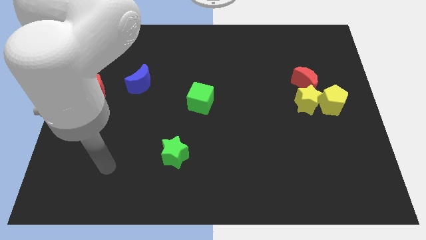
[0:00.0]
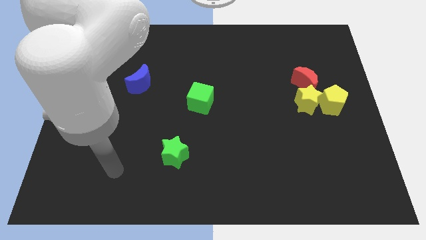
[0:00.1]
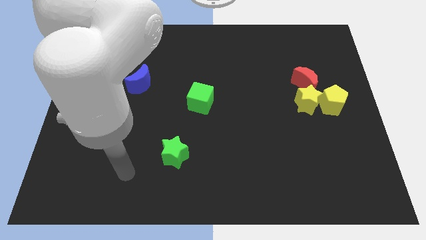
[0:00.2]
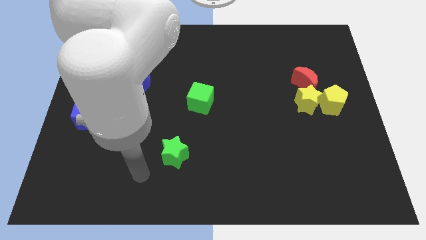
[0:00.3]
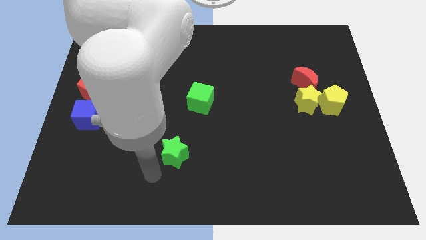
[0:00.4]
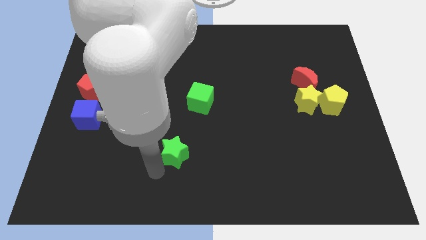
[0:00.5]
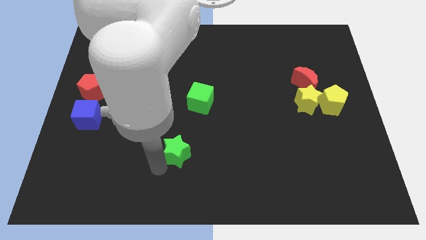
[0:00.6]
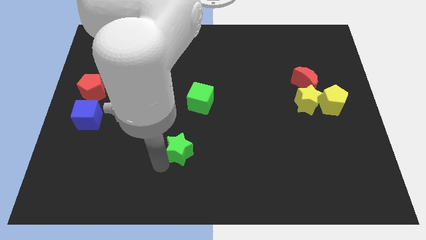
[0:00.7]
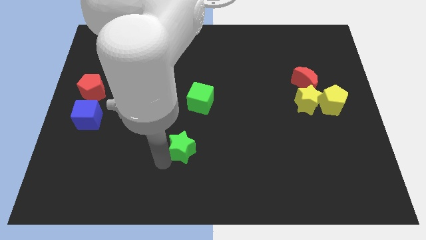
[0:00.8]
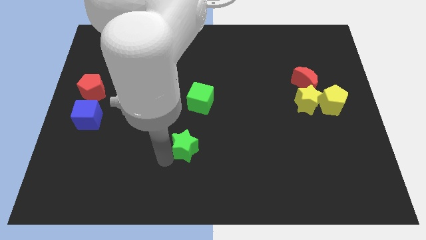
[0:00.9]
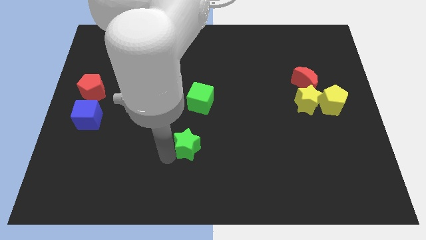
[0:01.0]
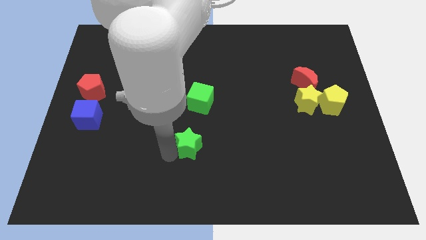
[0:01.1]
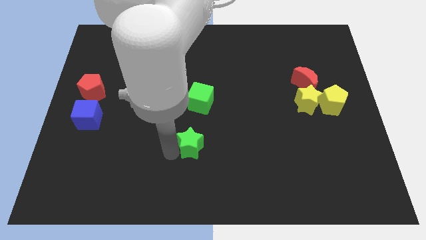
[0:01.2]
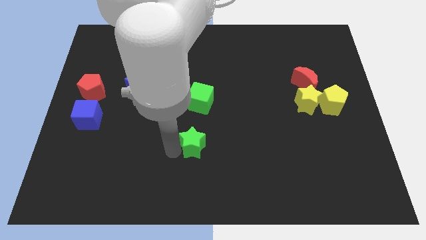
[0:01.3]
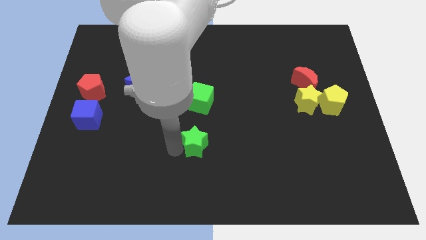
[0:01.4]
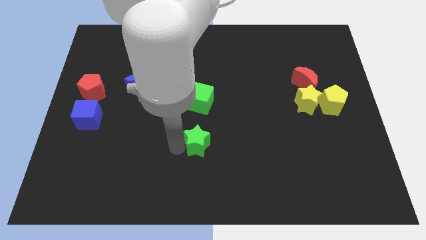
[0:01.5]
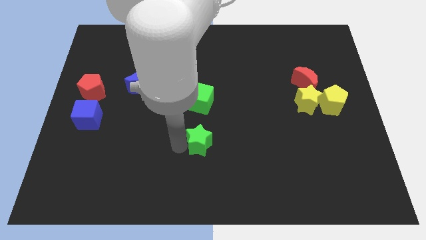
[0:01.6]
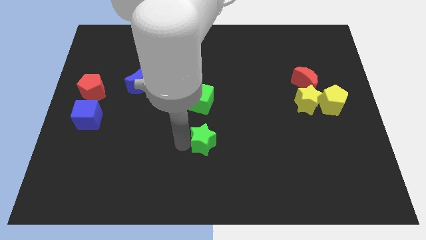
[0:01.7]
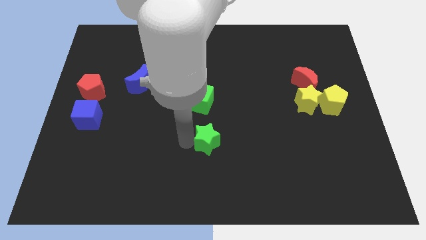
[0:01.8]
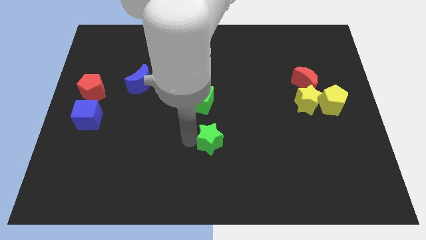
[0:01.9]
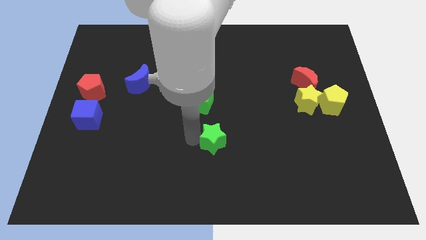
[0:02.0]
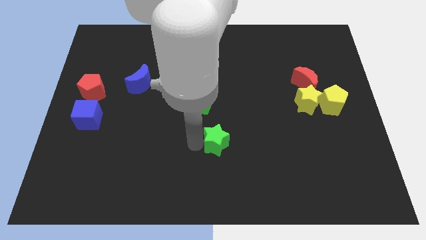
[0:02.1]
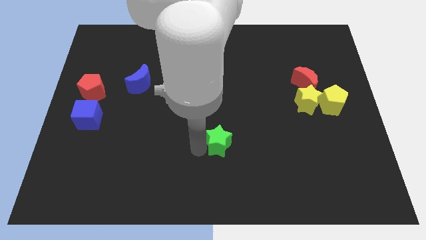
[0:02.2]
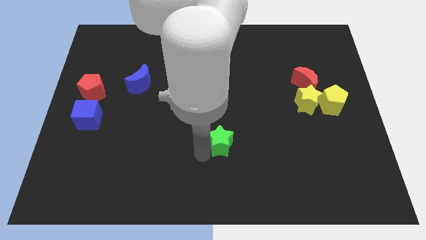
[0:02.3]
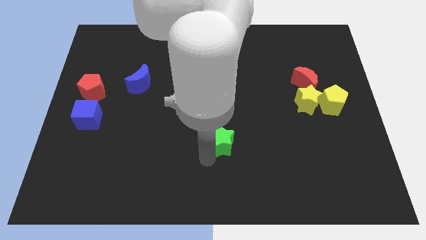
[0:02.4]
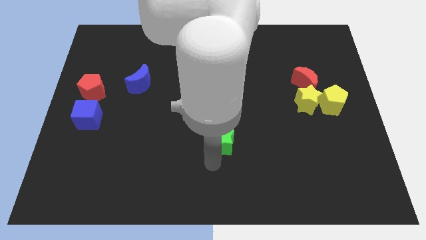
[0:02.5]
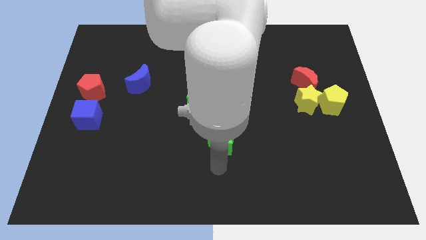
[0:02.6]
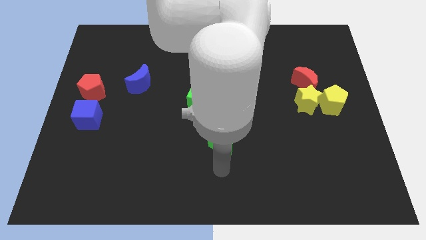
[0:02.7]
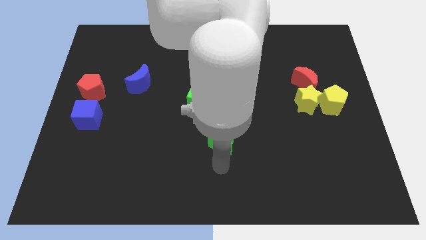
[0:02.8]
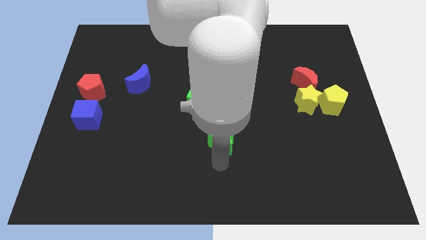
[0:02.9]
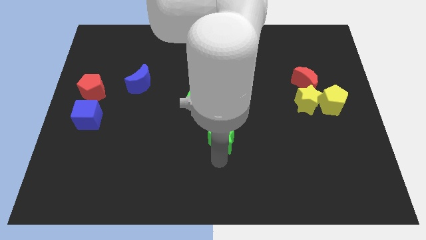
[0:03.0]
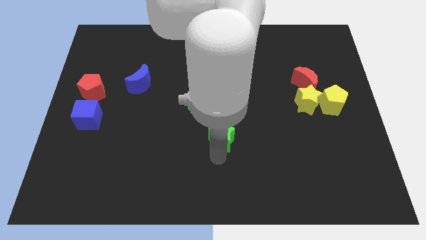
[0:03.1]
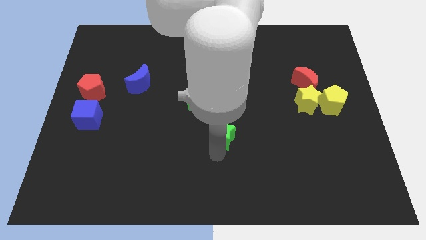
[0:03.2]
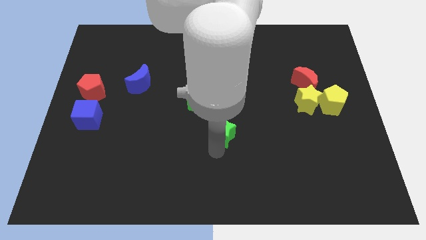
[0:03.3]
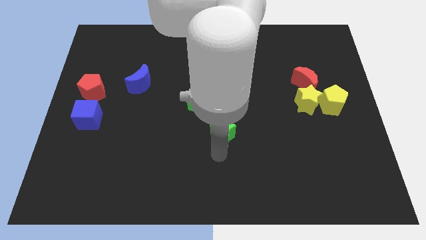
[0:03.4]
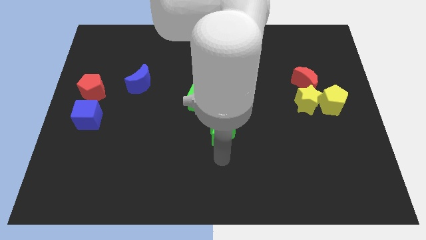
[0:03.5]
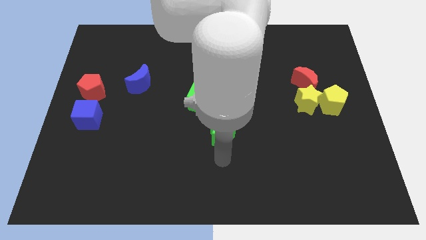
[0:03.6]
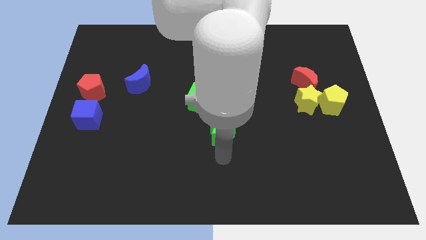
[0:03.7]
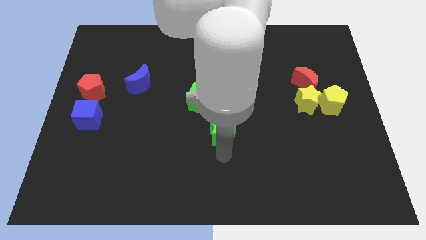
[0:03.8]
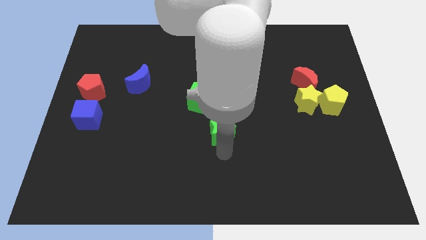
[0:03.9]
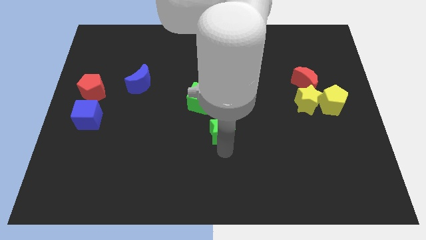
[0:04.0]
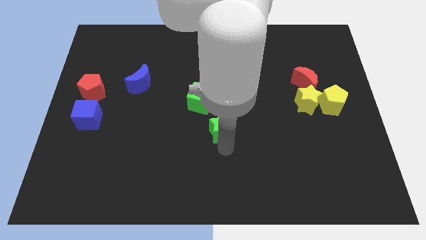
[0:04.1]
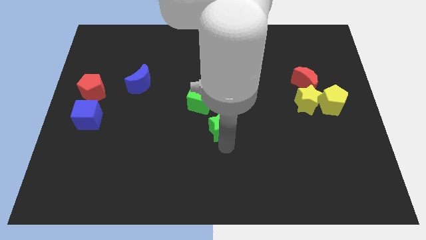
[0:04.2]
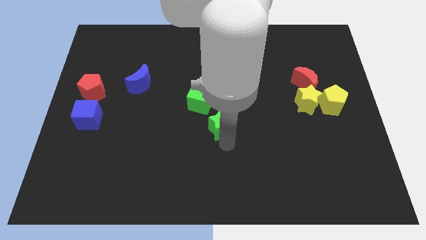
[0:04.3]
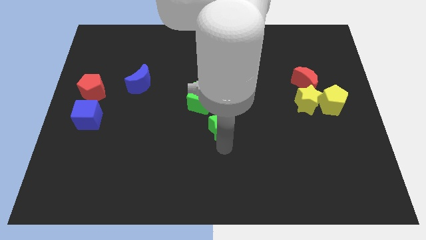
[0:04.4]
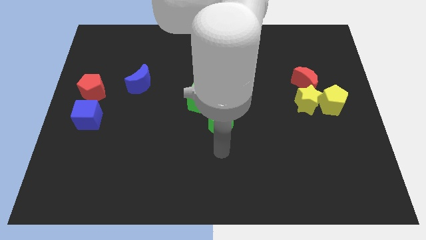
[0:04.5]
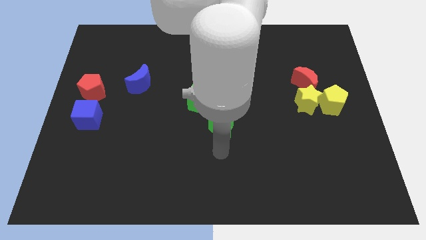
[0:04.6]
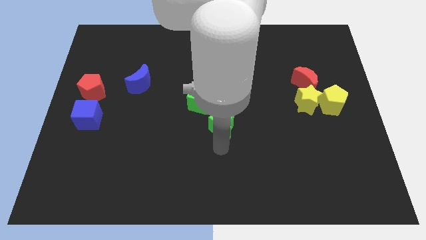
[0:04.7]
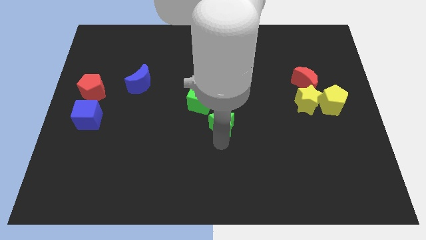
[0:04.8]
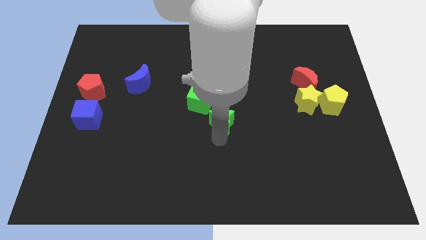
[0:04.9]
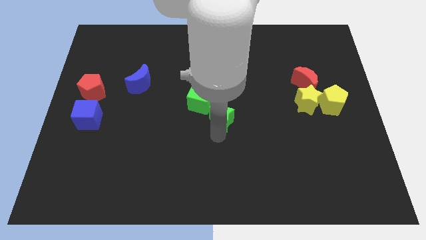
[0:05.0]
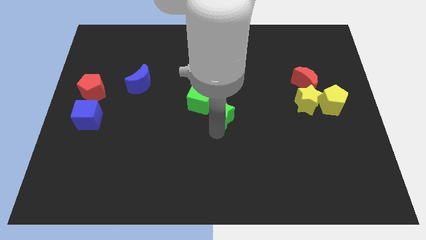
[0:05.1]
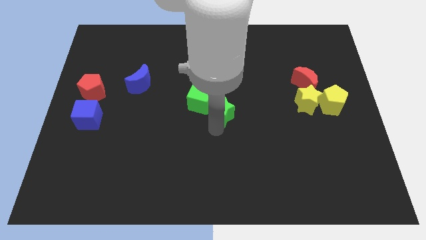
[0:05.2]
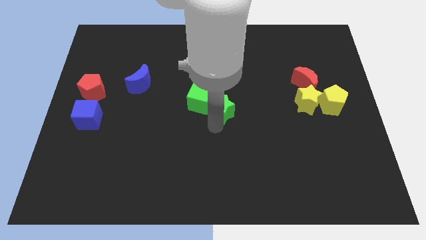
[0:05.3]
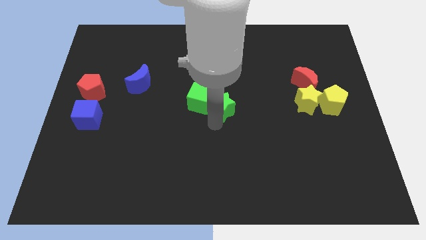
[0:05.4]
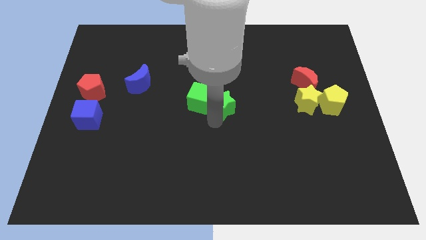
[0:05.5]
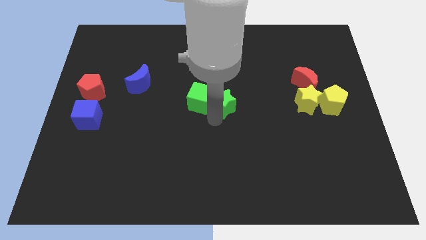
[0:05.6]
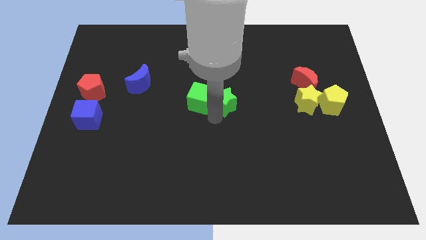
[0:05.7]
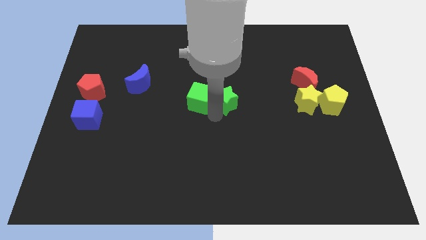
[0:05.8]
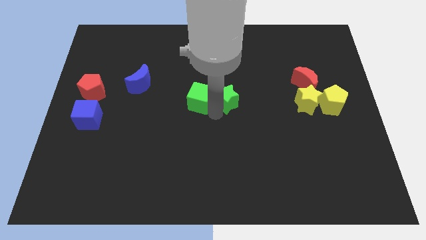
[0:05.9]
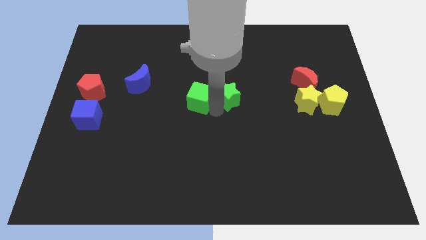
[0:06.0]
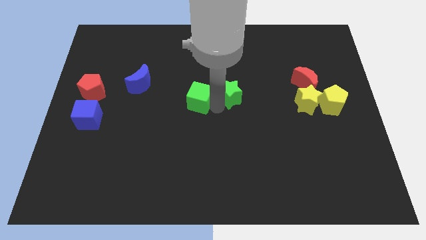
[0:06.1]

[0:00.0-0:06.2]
slide the green star upwards and then right

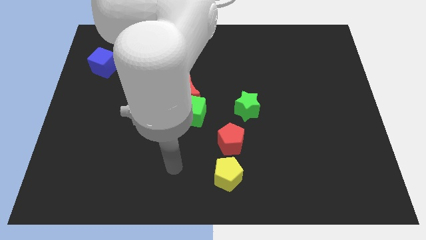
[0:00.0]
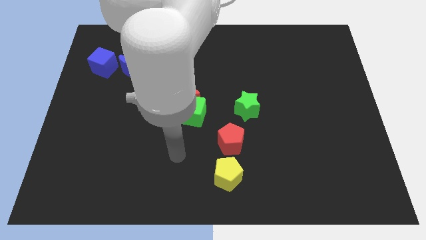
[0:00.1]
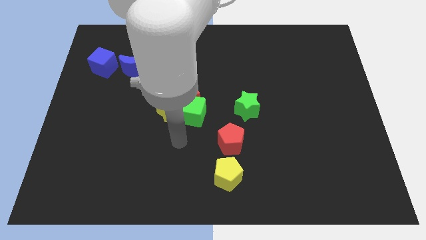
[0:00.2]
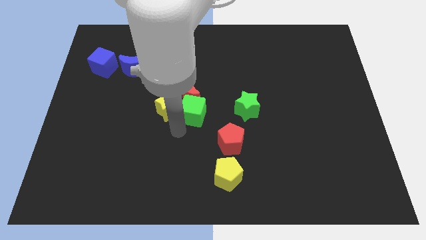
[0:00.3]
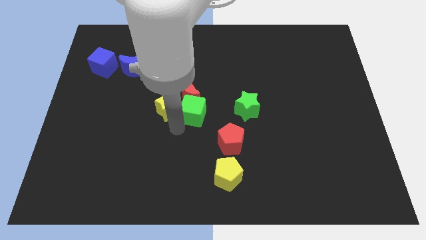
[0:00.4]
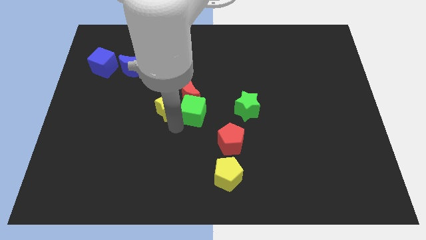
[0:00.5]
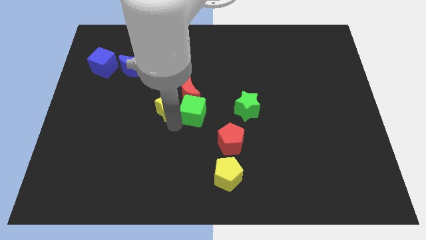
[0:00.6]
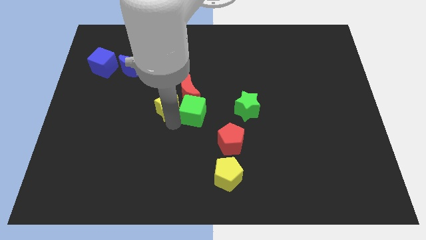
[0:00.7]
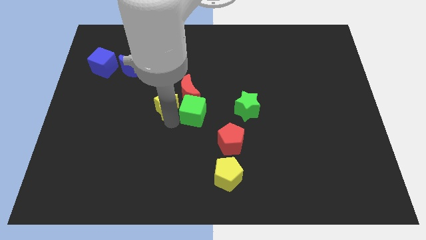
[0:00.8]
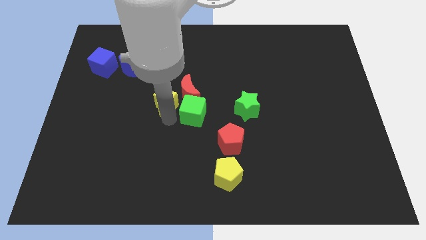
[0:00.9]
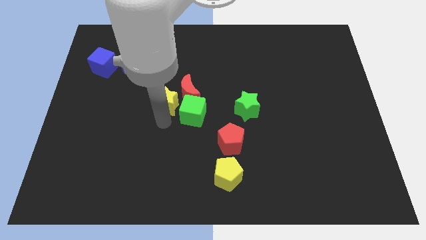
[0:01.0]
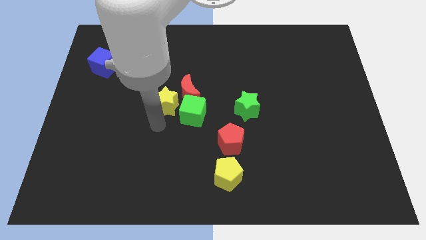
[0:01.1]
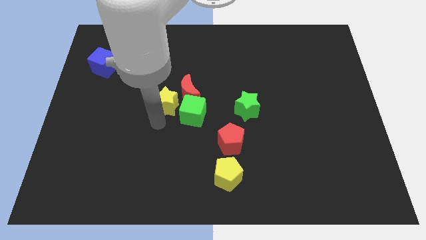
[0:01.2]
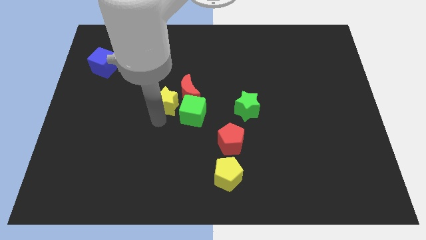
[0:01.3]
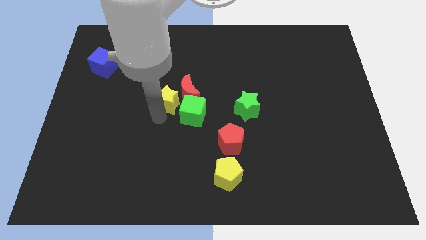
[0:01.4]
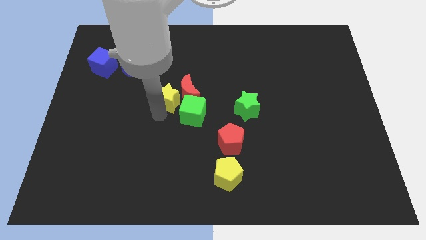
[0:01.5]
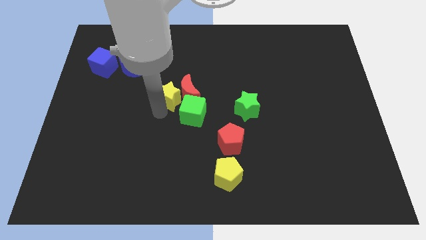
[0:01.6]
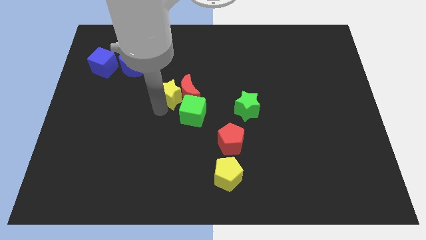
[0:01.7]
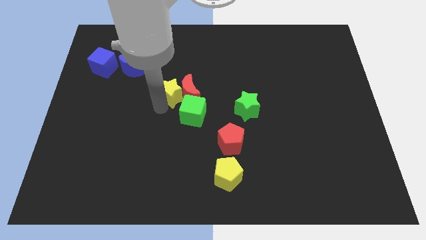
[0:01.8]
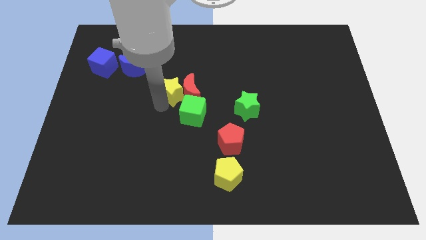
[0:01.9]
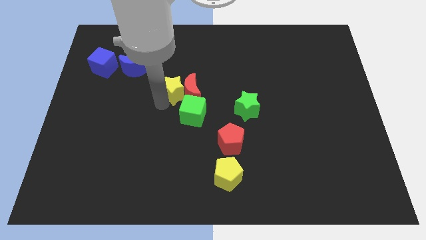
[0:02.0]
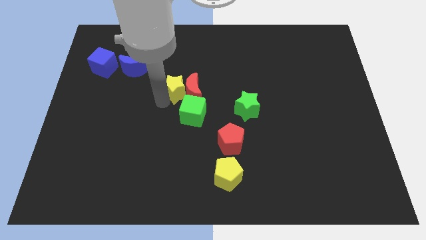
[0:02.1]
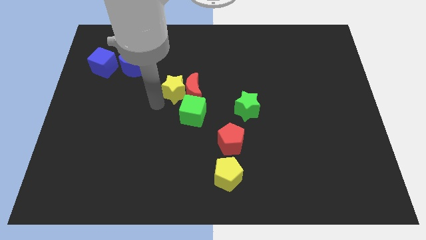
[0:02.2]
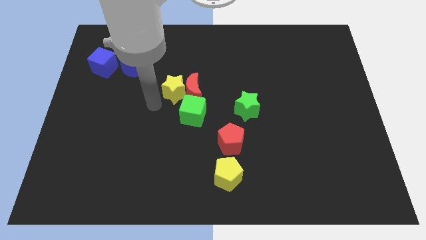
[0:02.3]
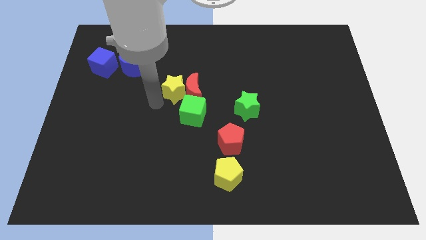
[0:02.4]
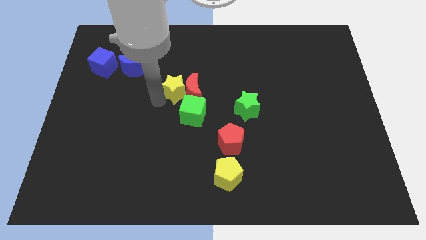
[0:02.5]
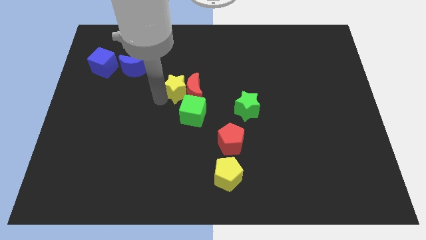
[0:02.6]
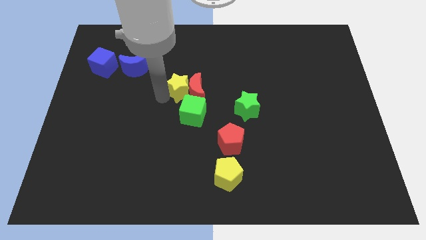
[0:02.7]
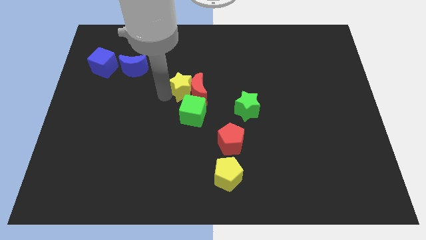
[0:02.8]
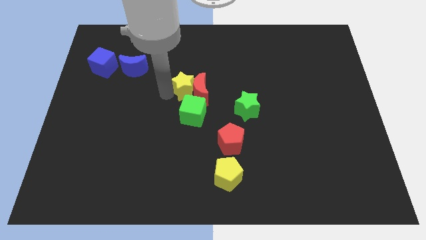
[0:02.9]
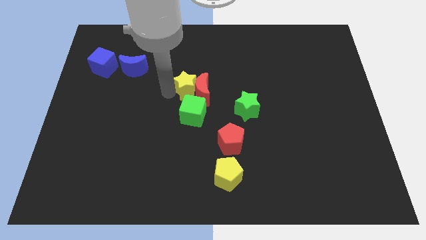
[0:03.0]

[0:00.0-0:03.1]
push the yellow star up and then right somewhat
